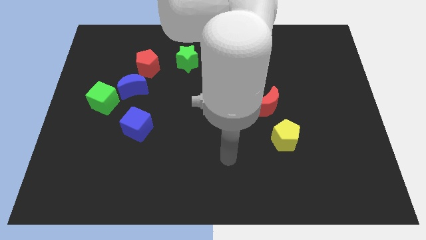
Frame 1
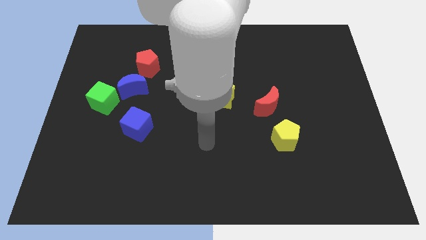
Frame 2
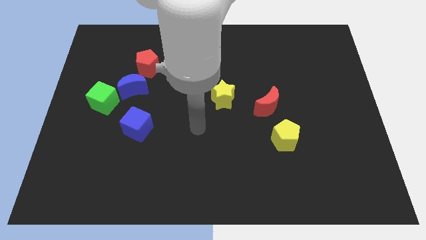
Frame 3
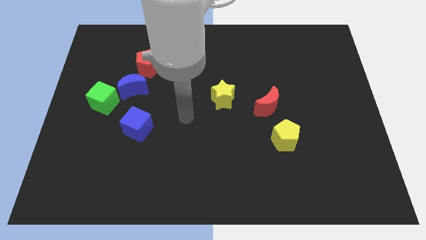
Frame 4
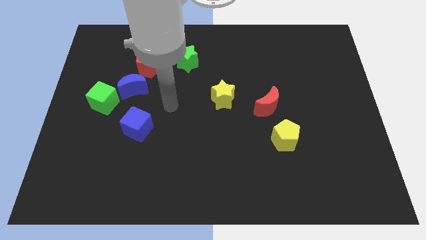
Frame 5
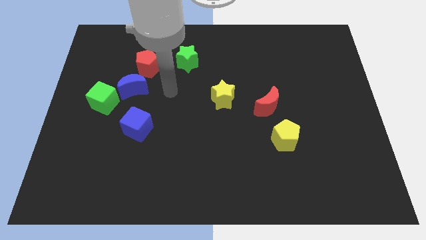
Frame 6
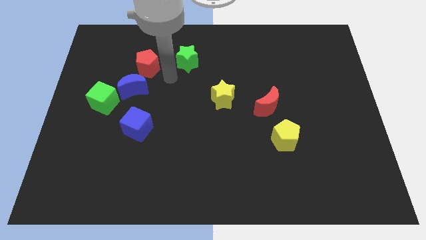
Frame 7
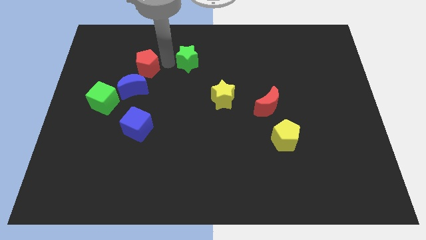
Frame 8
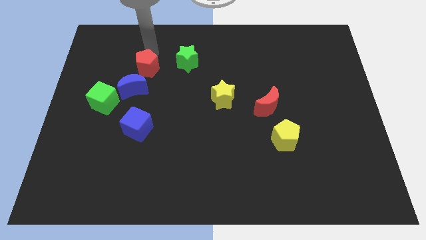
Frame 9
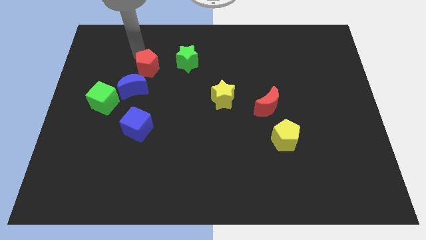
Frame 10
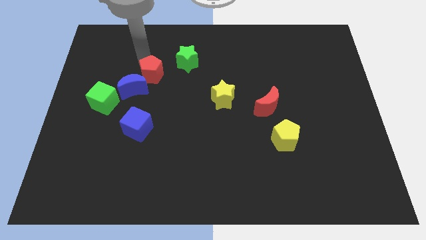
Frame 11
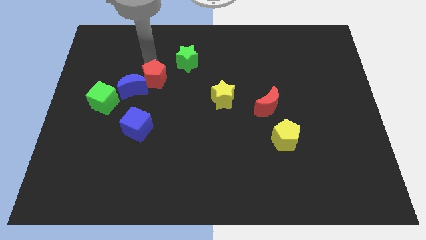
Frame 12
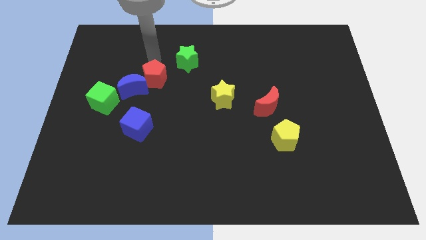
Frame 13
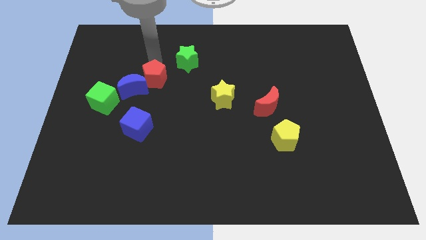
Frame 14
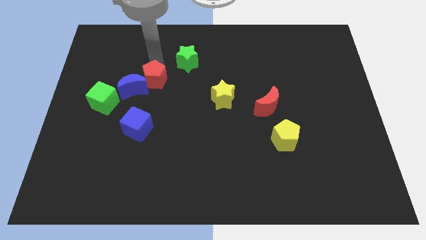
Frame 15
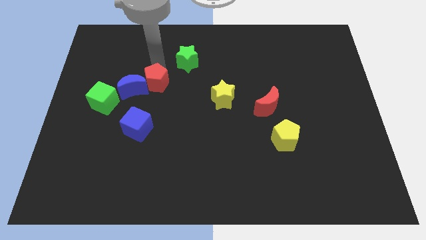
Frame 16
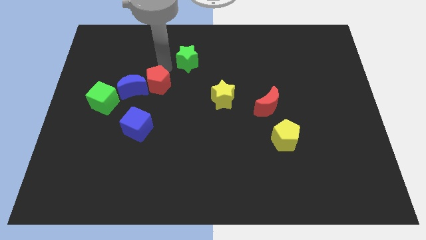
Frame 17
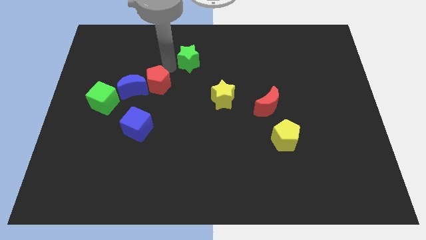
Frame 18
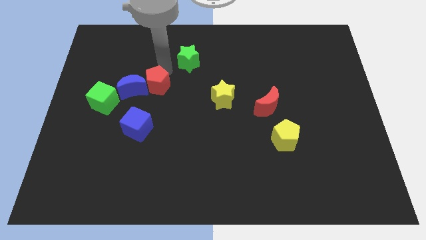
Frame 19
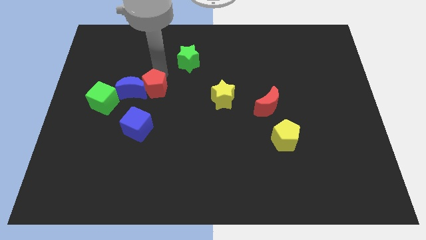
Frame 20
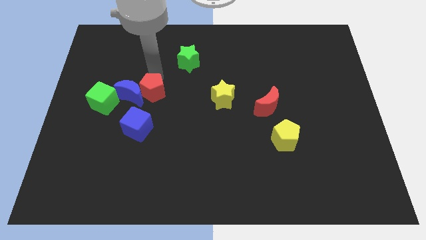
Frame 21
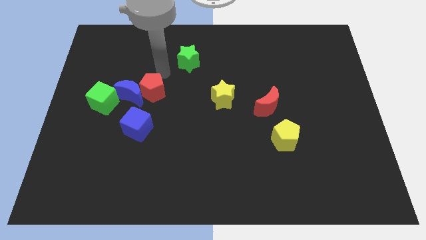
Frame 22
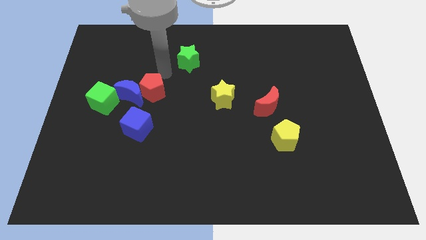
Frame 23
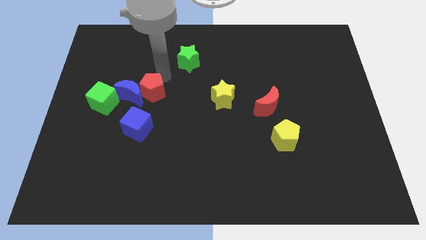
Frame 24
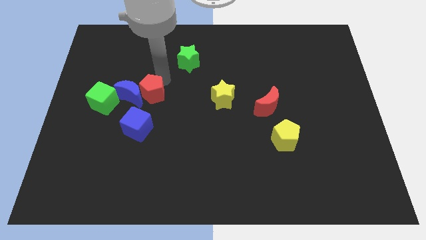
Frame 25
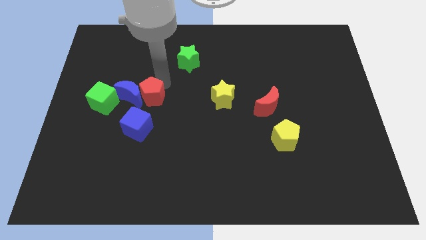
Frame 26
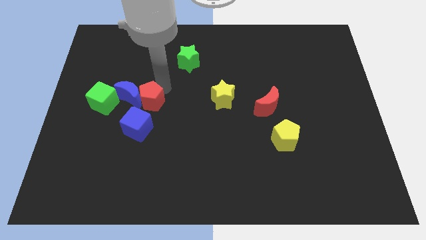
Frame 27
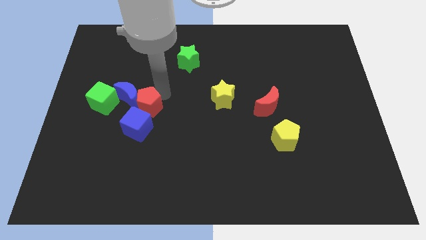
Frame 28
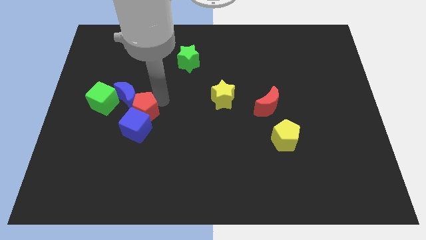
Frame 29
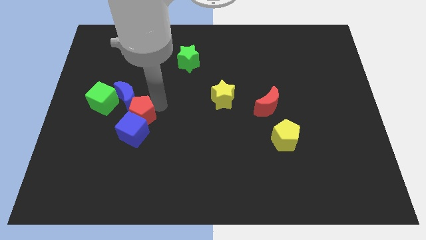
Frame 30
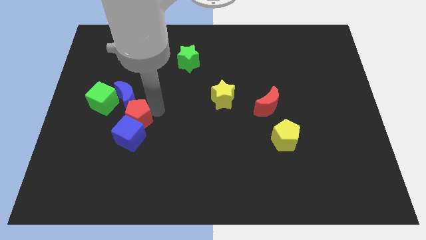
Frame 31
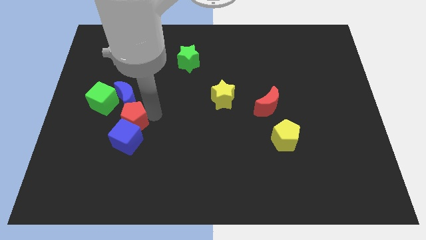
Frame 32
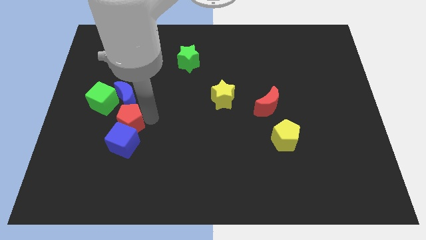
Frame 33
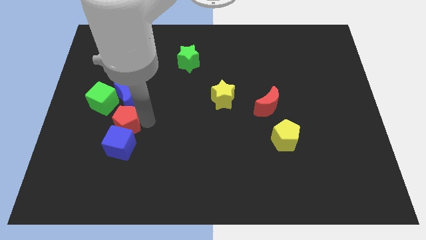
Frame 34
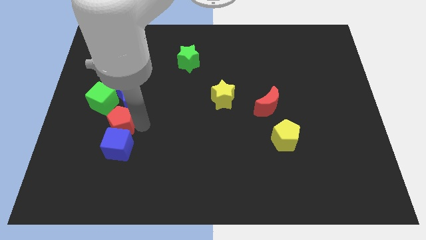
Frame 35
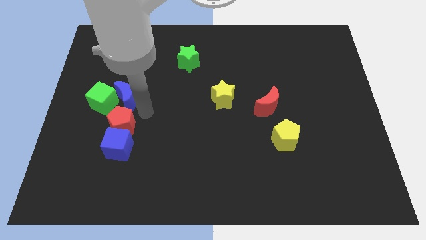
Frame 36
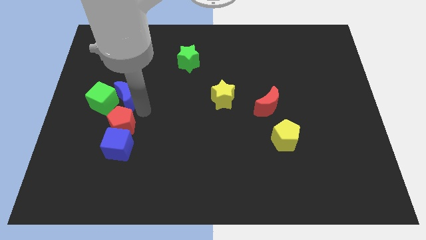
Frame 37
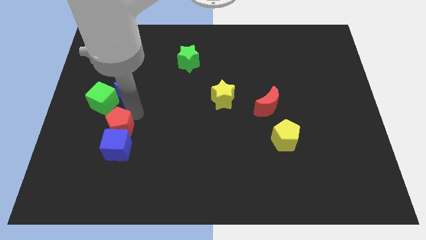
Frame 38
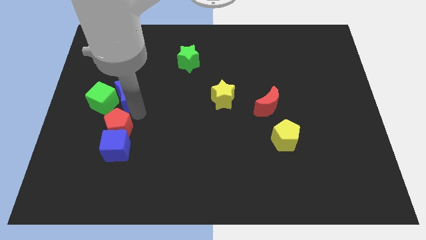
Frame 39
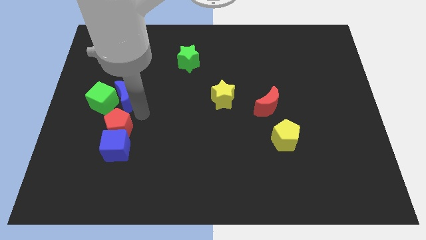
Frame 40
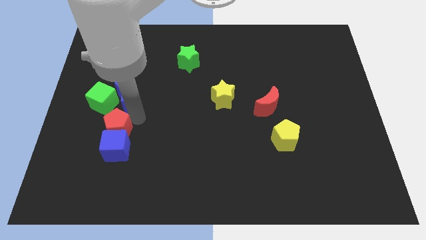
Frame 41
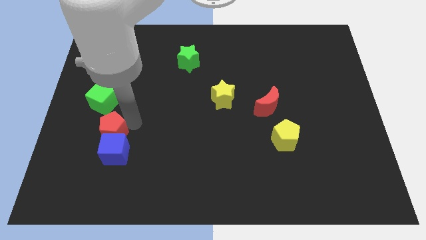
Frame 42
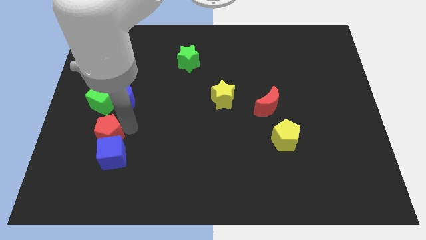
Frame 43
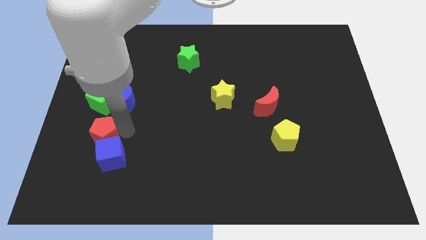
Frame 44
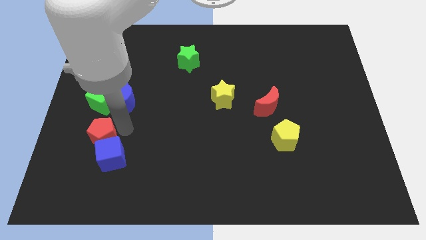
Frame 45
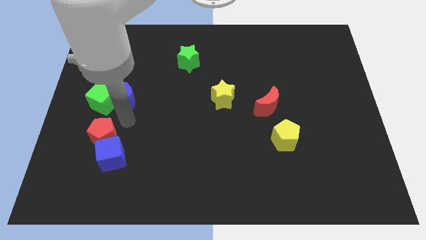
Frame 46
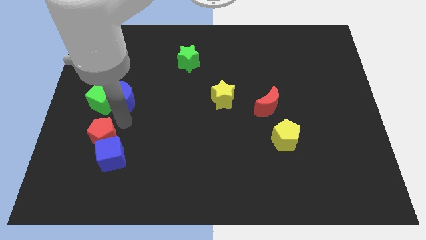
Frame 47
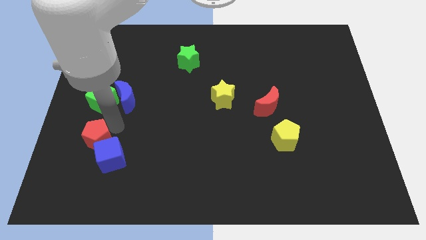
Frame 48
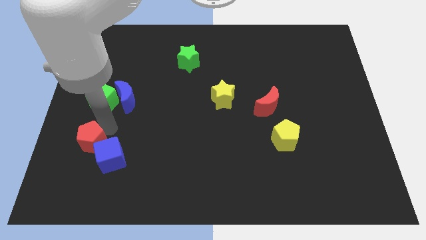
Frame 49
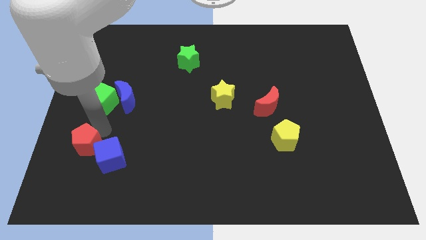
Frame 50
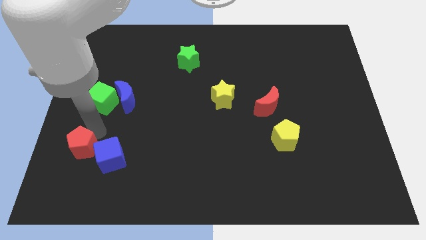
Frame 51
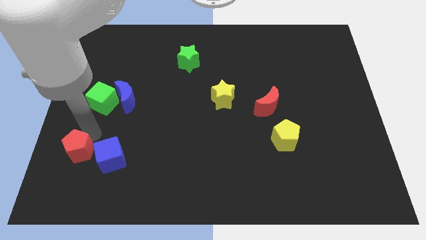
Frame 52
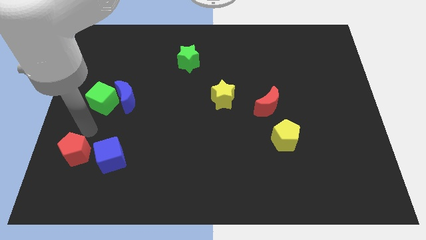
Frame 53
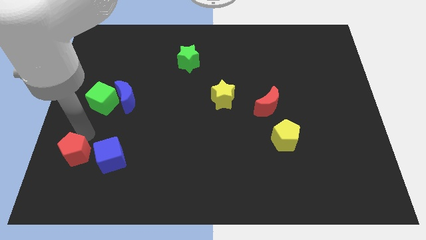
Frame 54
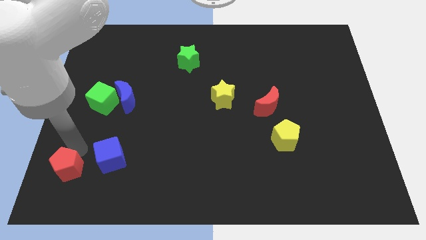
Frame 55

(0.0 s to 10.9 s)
push the red pentagon to the bottom left corner

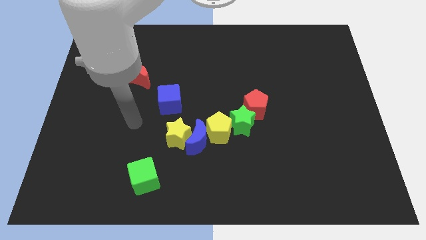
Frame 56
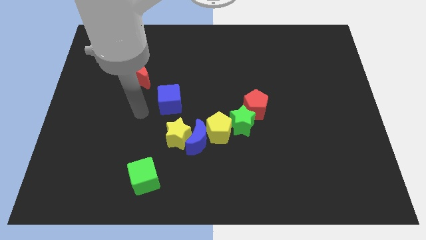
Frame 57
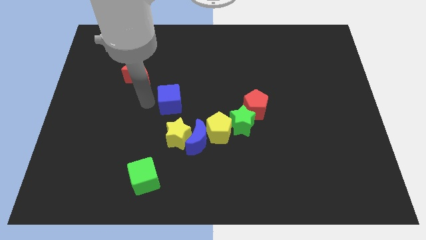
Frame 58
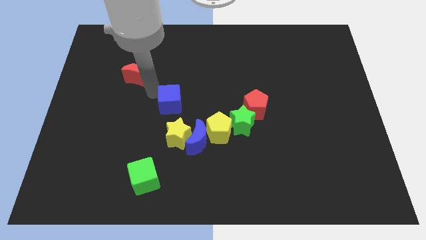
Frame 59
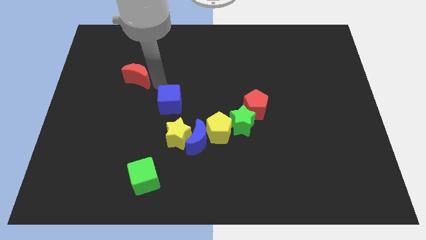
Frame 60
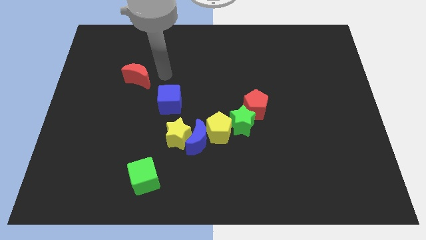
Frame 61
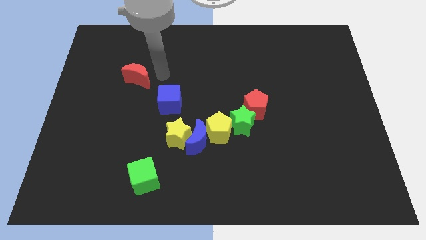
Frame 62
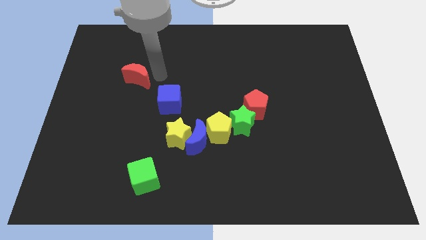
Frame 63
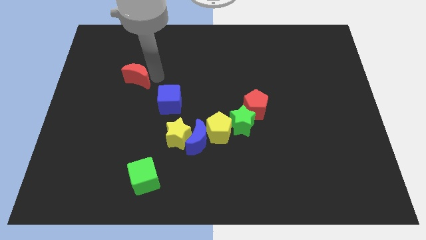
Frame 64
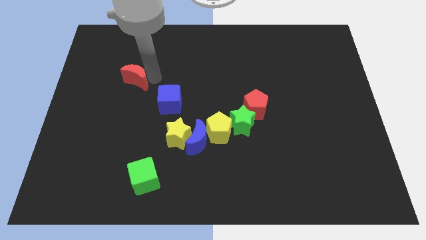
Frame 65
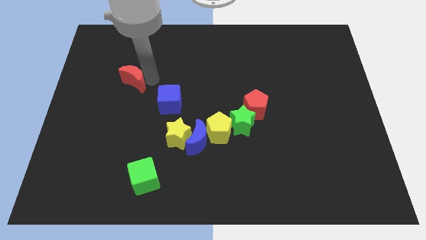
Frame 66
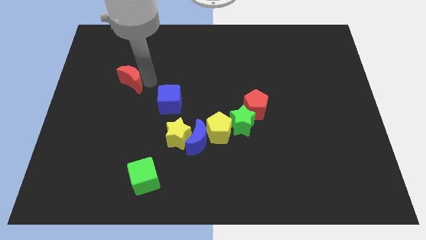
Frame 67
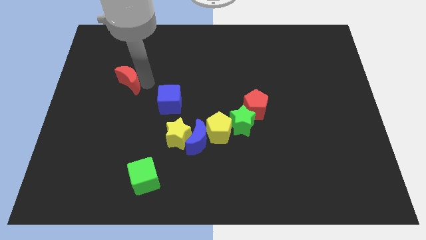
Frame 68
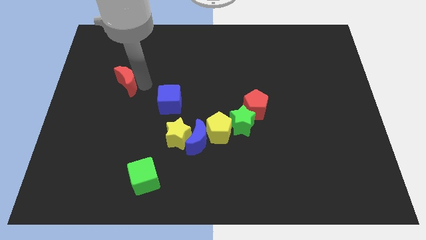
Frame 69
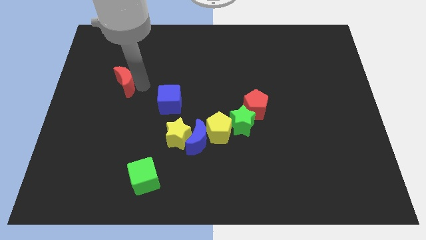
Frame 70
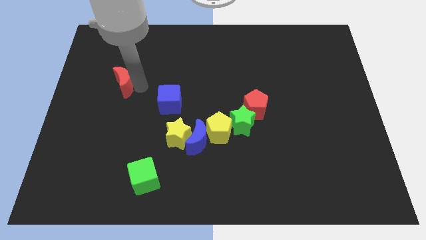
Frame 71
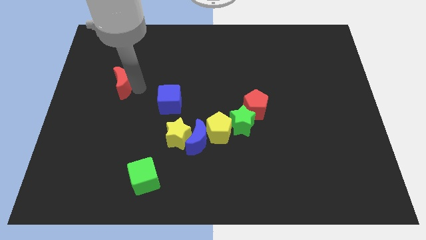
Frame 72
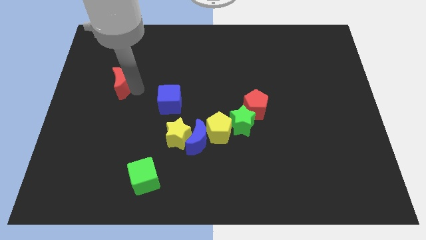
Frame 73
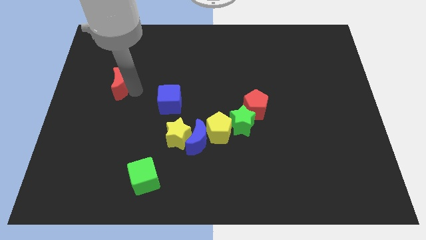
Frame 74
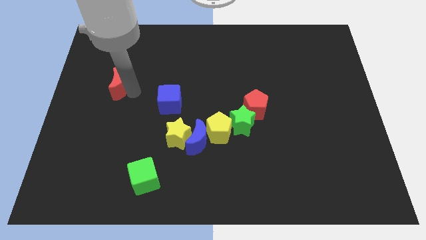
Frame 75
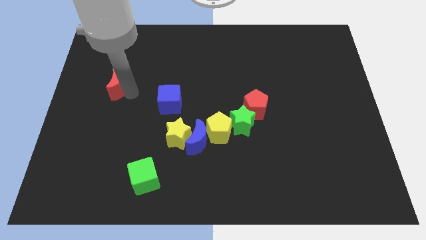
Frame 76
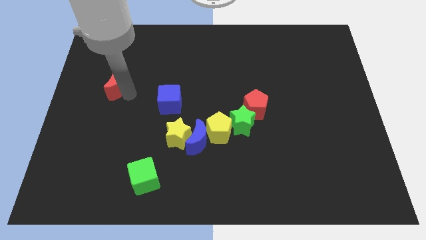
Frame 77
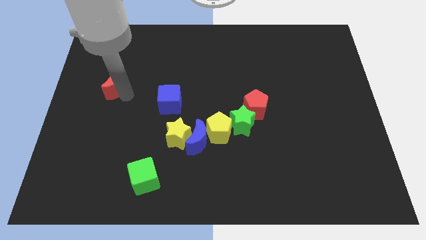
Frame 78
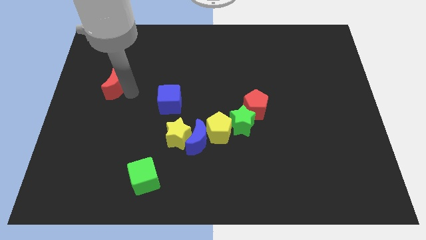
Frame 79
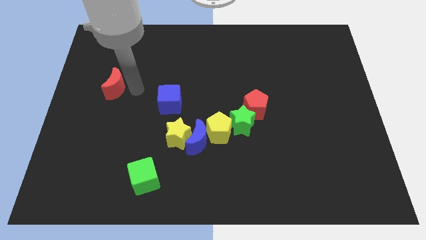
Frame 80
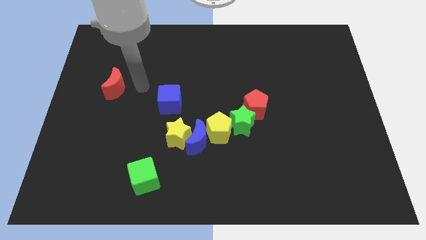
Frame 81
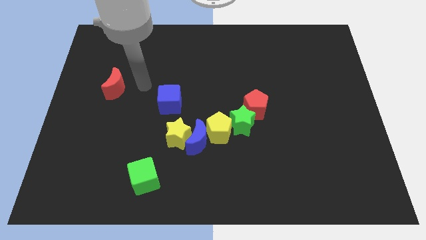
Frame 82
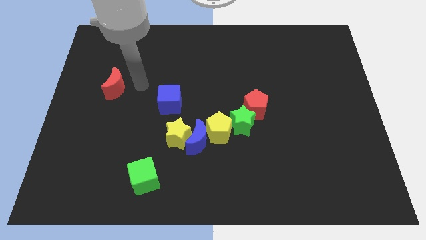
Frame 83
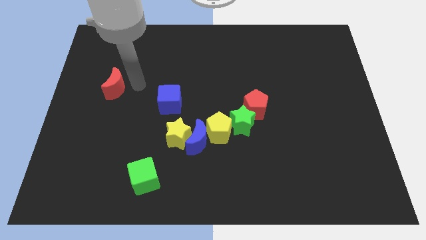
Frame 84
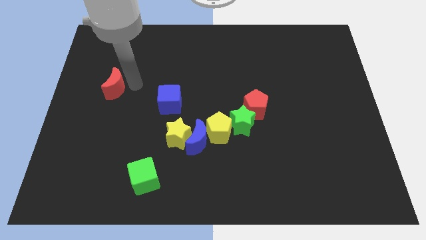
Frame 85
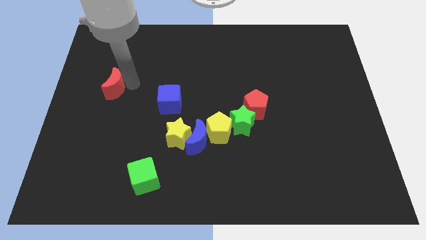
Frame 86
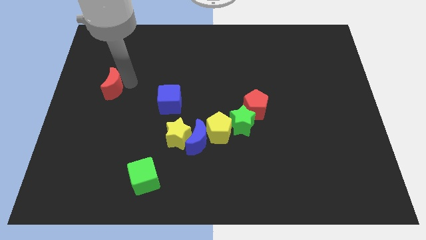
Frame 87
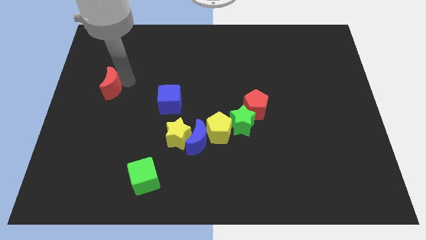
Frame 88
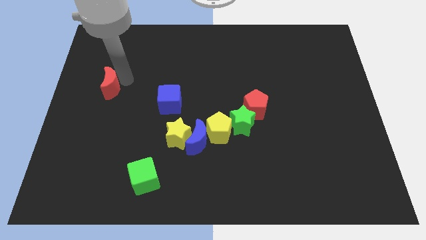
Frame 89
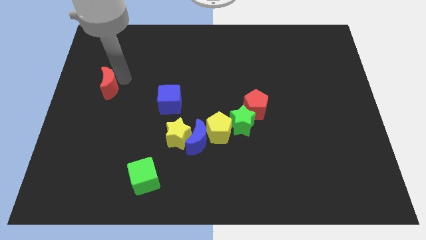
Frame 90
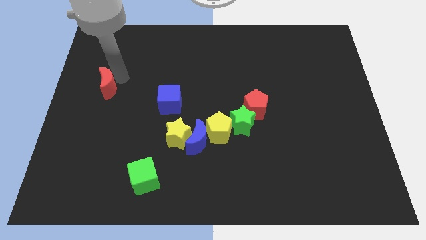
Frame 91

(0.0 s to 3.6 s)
push the red moon to the left side
